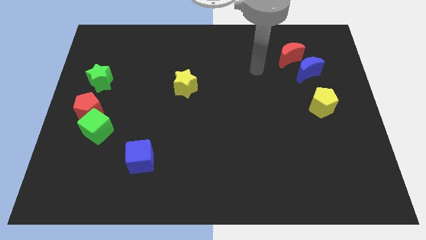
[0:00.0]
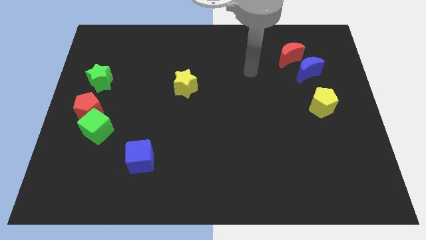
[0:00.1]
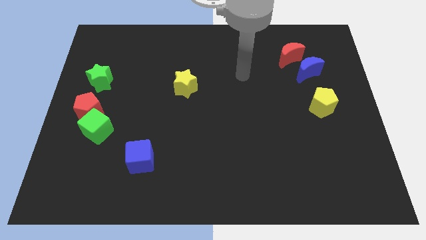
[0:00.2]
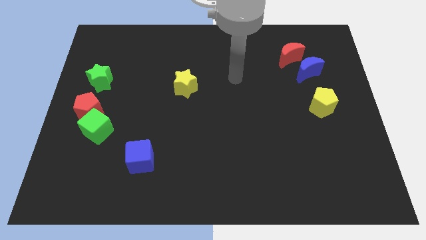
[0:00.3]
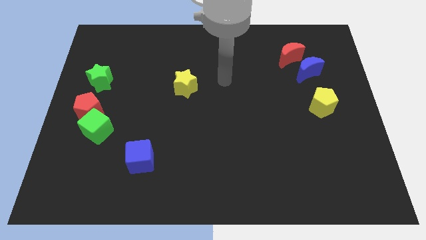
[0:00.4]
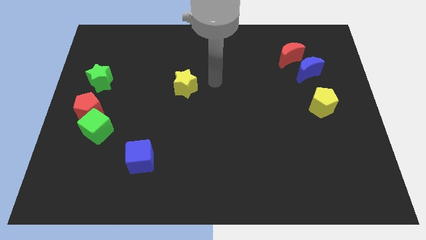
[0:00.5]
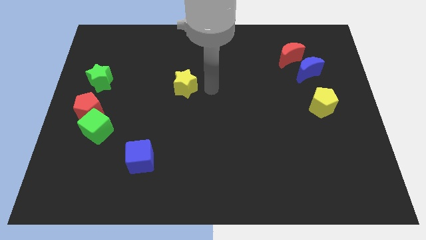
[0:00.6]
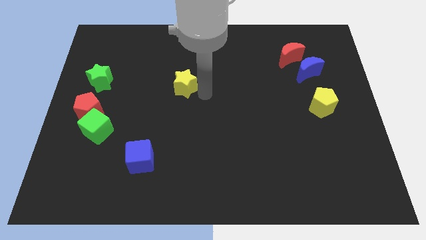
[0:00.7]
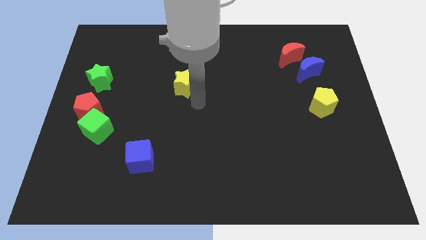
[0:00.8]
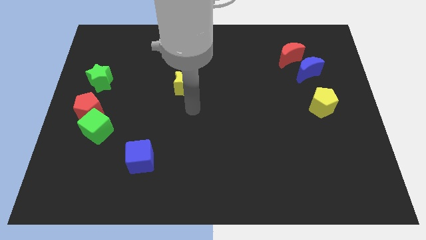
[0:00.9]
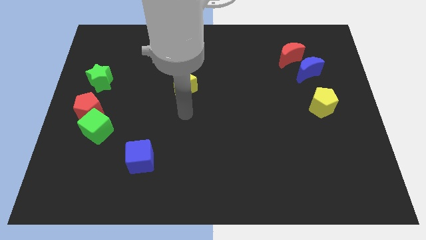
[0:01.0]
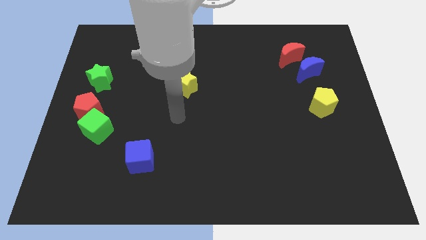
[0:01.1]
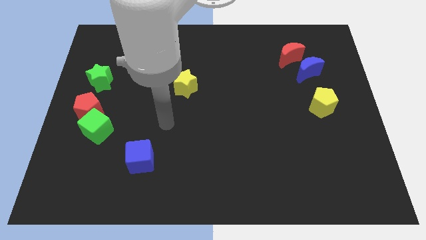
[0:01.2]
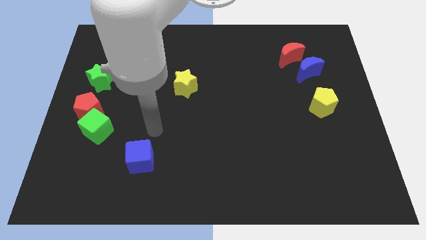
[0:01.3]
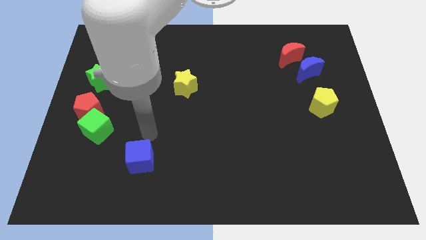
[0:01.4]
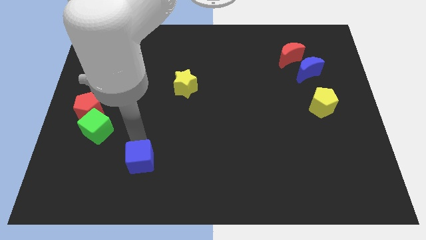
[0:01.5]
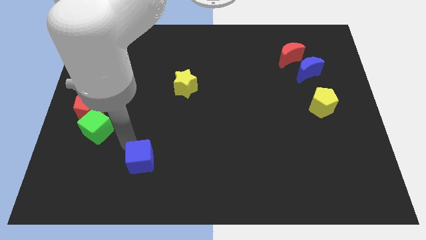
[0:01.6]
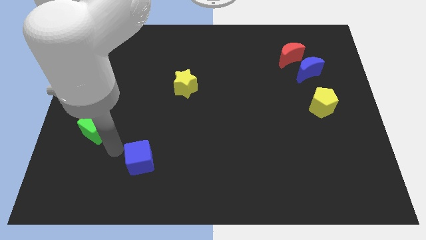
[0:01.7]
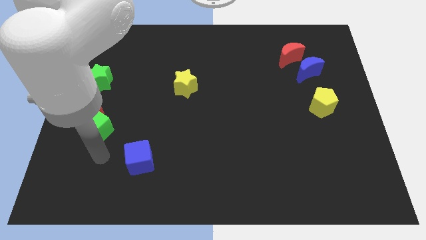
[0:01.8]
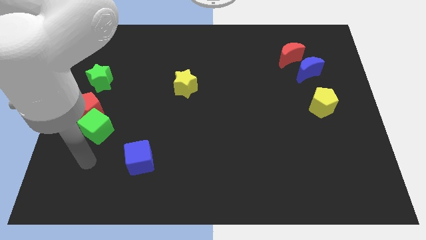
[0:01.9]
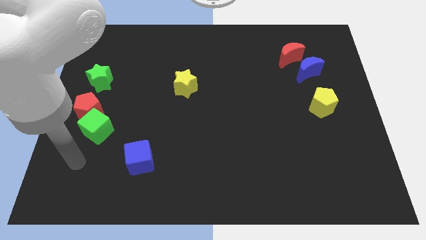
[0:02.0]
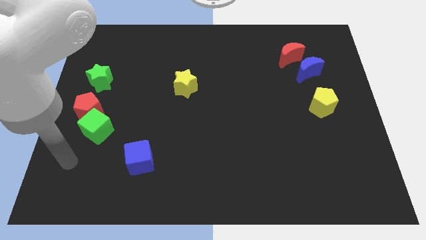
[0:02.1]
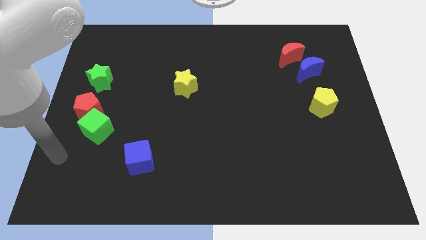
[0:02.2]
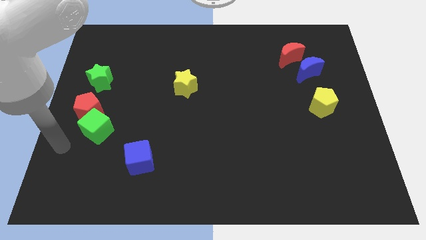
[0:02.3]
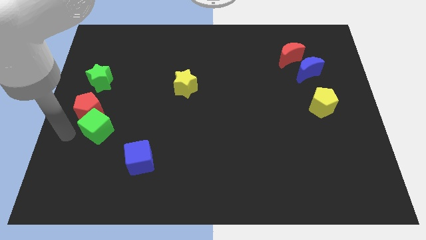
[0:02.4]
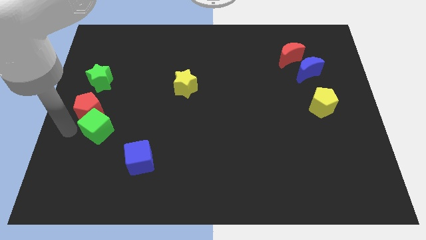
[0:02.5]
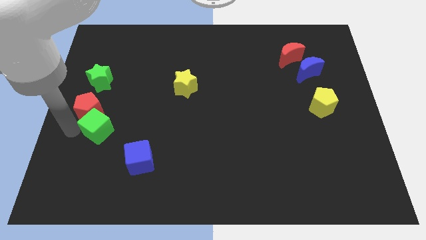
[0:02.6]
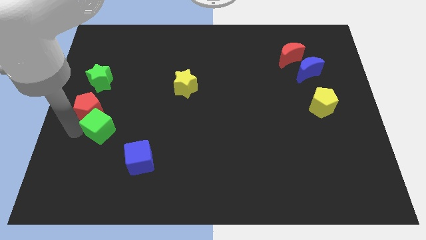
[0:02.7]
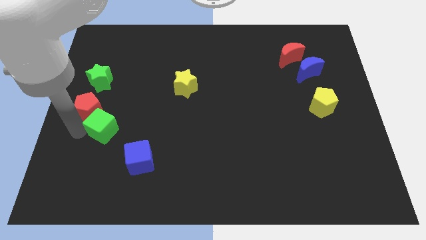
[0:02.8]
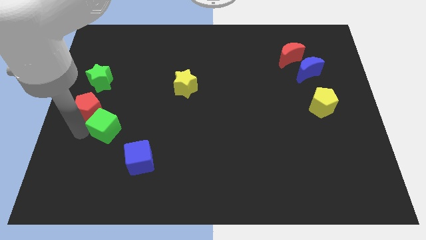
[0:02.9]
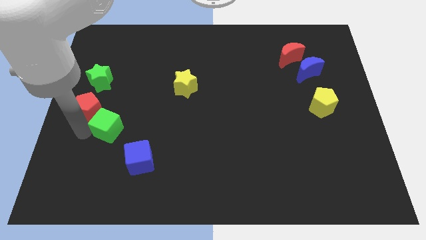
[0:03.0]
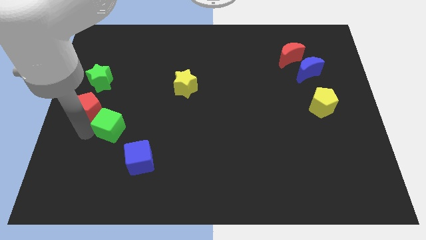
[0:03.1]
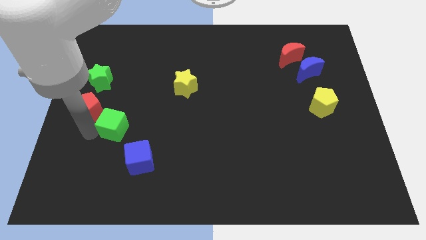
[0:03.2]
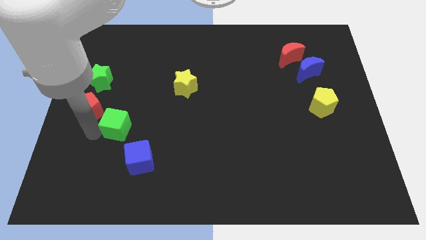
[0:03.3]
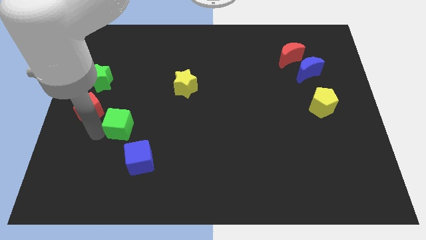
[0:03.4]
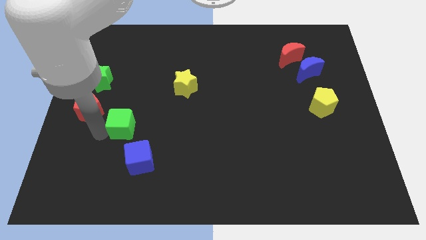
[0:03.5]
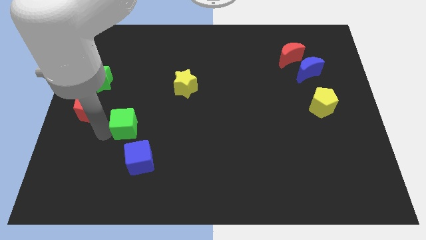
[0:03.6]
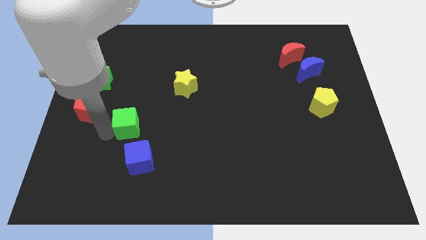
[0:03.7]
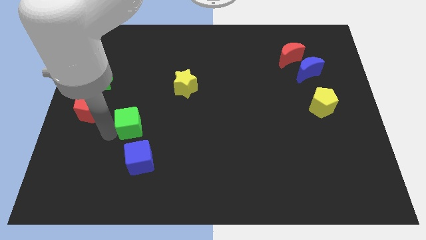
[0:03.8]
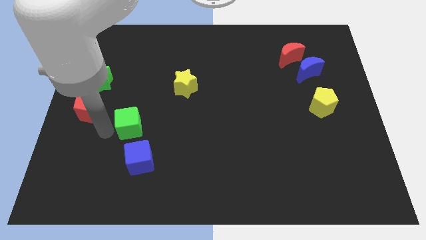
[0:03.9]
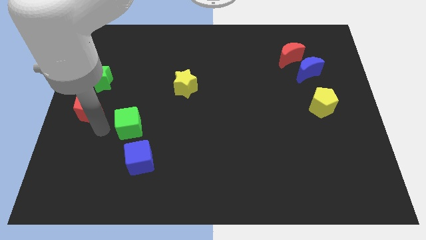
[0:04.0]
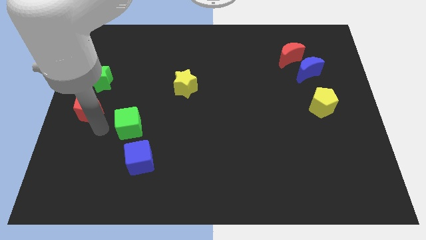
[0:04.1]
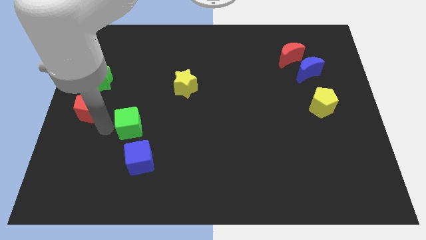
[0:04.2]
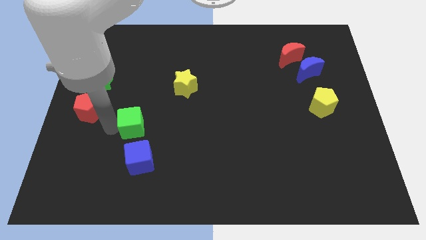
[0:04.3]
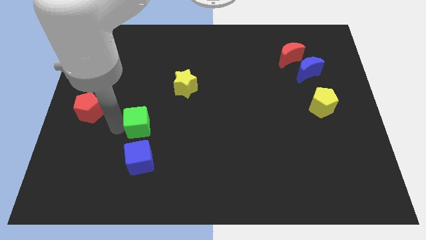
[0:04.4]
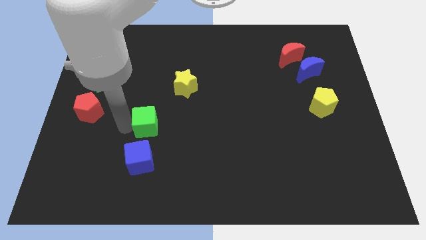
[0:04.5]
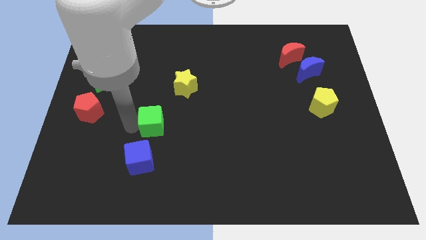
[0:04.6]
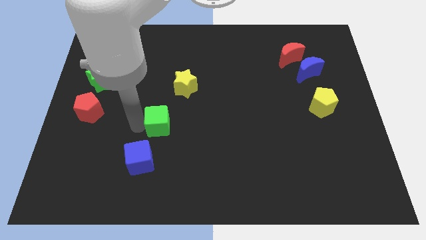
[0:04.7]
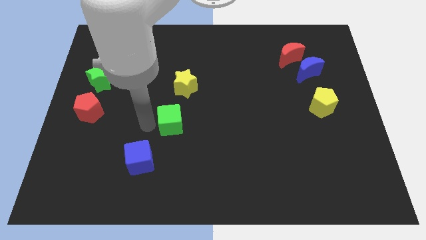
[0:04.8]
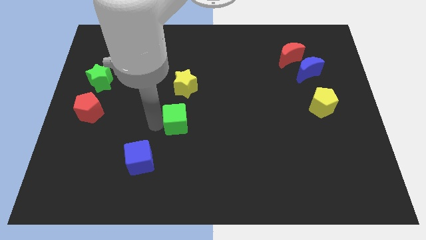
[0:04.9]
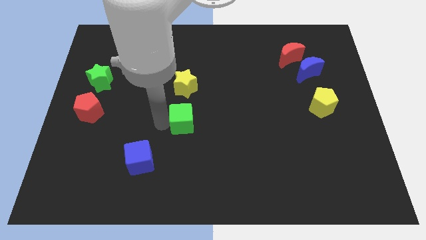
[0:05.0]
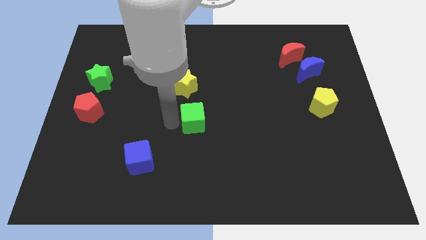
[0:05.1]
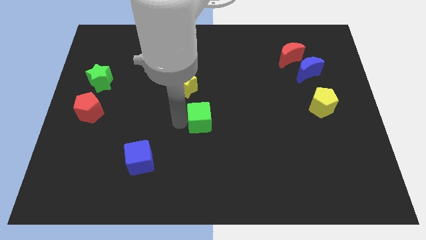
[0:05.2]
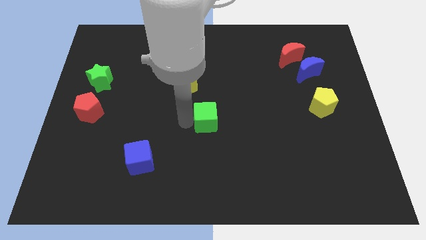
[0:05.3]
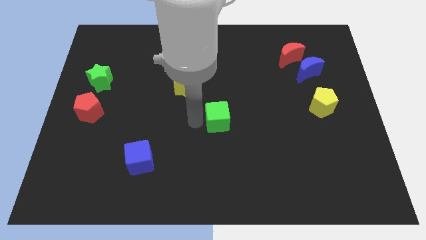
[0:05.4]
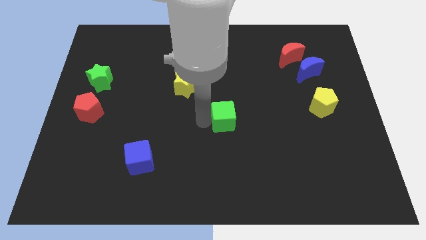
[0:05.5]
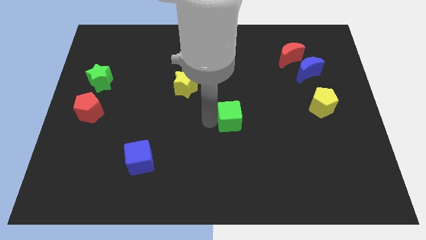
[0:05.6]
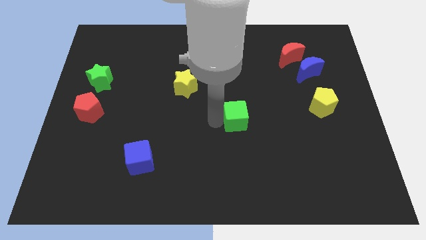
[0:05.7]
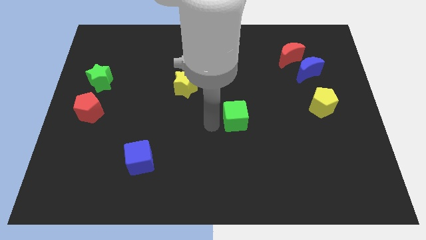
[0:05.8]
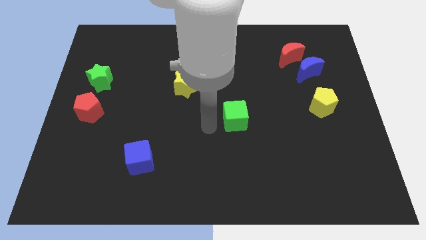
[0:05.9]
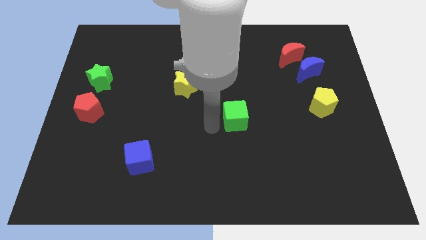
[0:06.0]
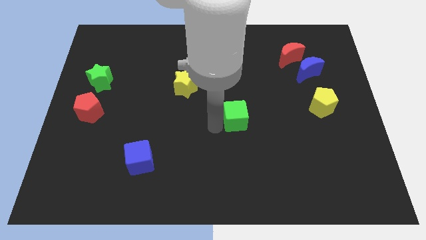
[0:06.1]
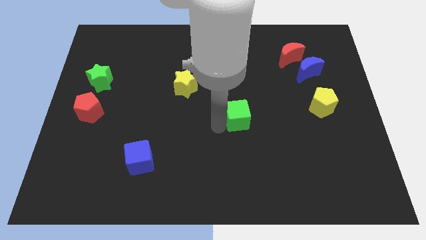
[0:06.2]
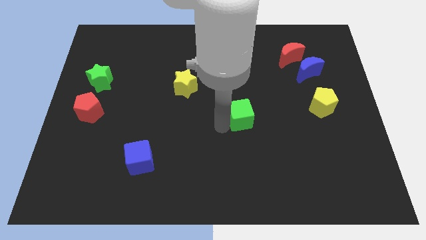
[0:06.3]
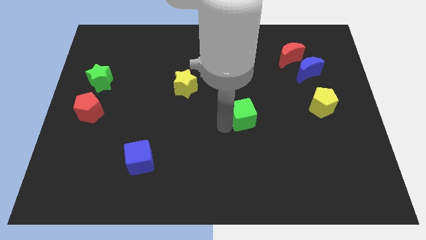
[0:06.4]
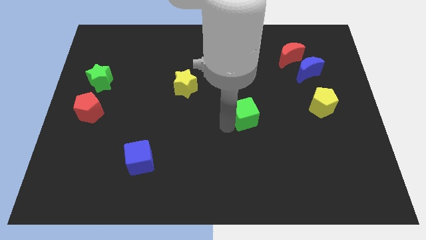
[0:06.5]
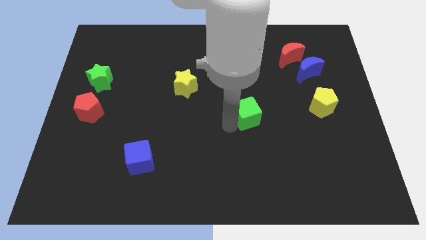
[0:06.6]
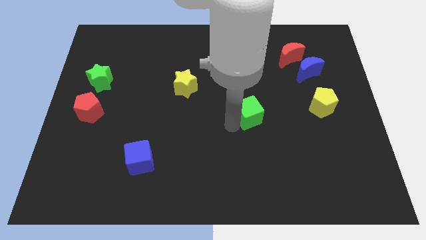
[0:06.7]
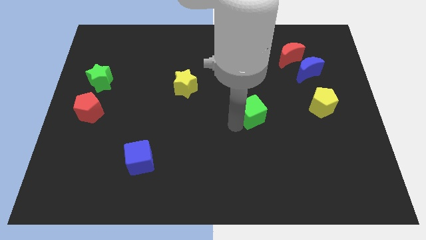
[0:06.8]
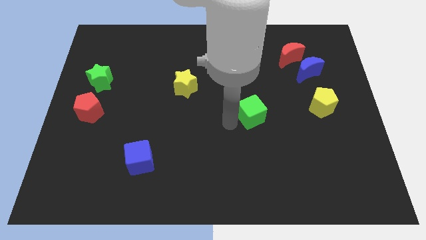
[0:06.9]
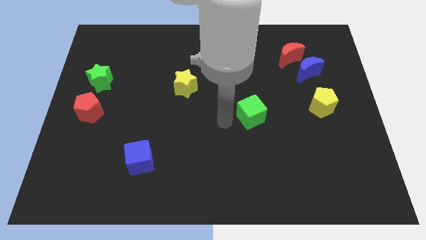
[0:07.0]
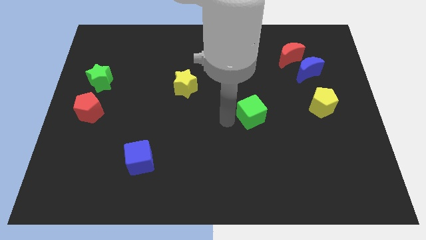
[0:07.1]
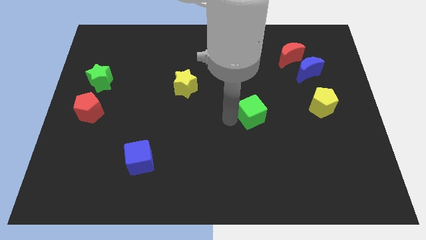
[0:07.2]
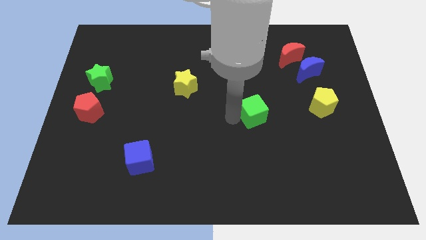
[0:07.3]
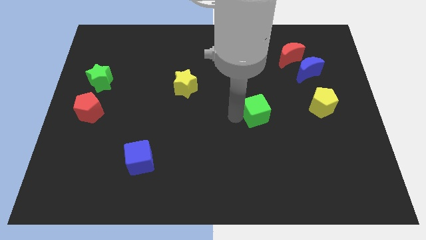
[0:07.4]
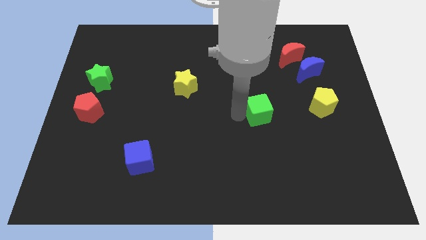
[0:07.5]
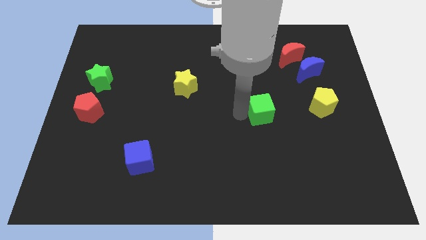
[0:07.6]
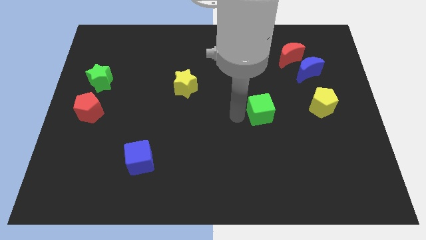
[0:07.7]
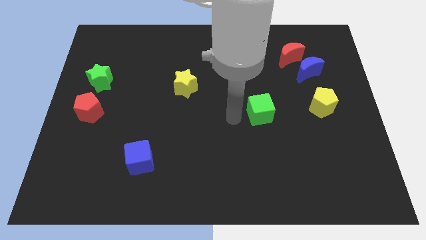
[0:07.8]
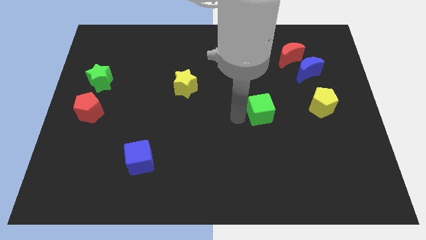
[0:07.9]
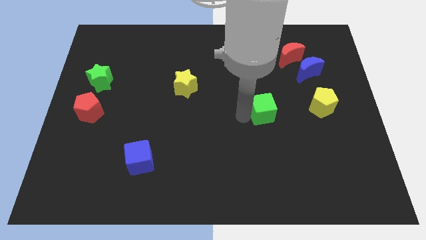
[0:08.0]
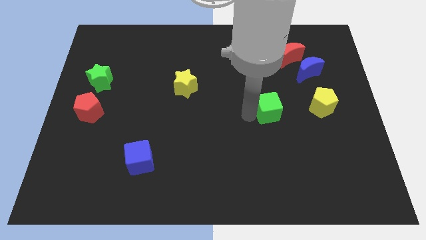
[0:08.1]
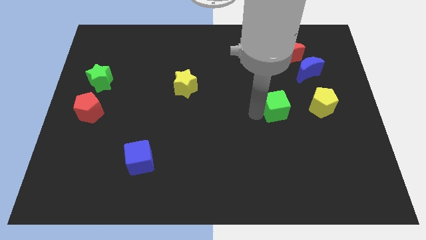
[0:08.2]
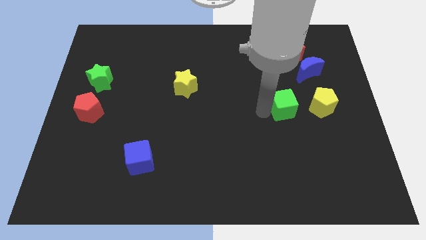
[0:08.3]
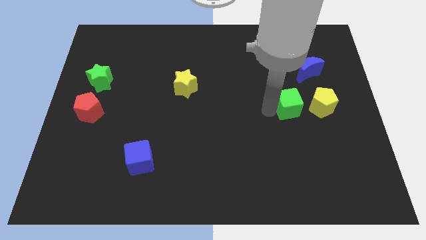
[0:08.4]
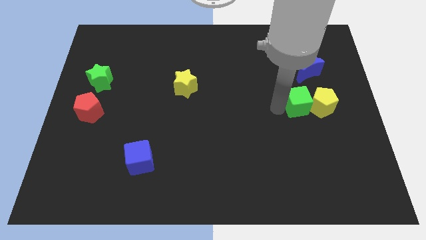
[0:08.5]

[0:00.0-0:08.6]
move the green cube towards the yellow pentagon
